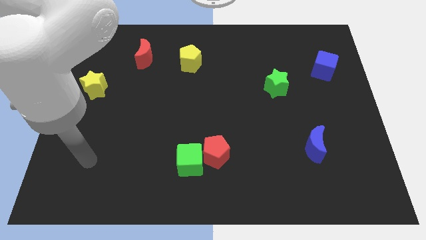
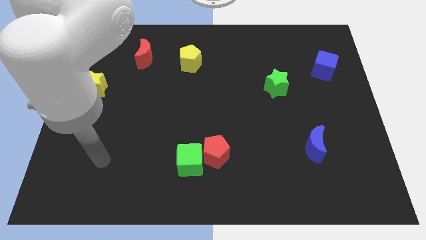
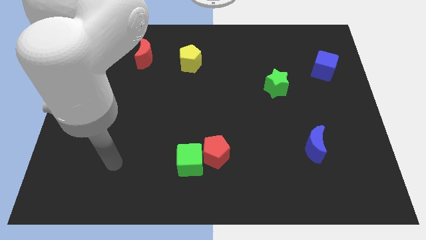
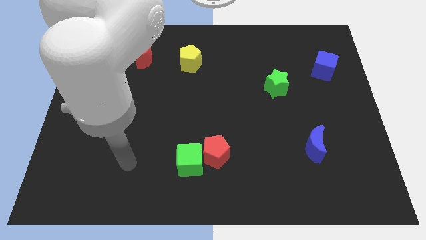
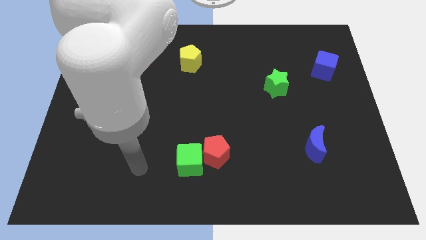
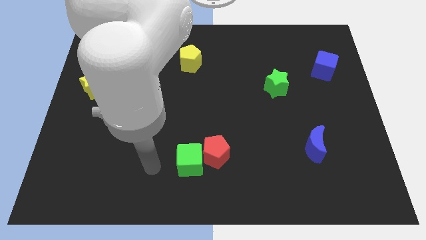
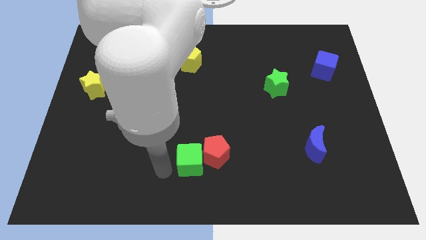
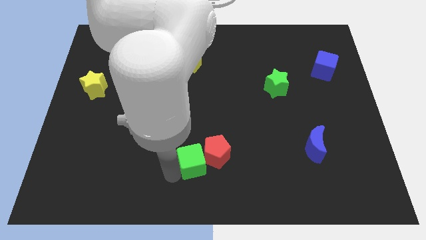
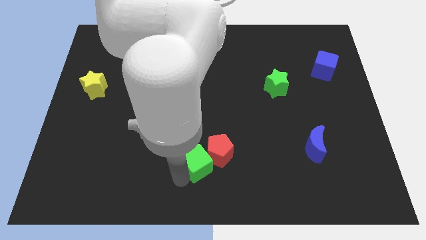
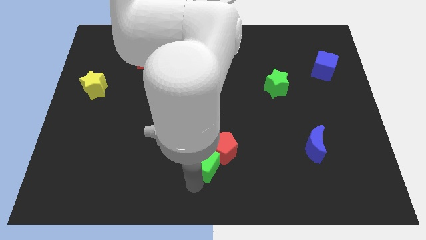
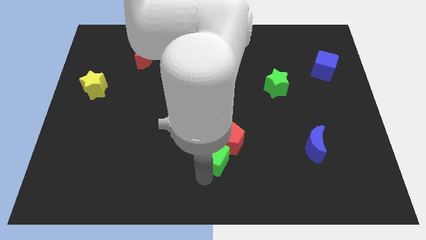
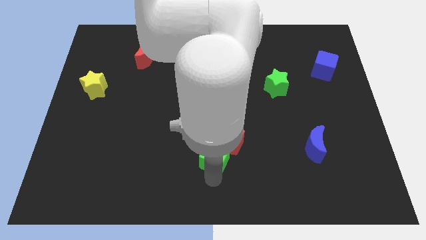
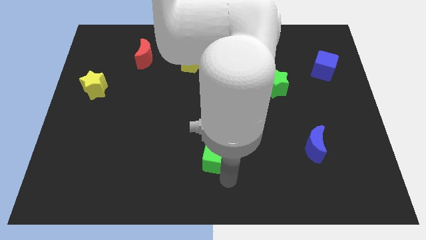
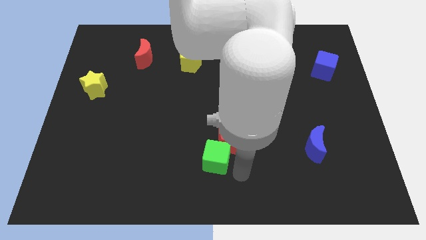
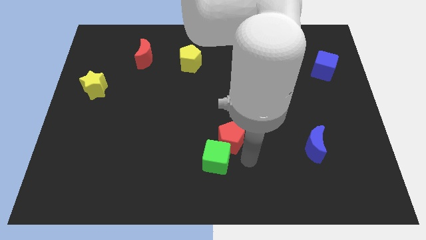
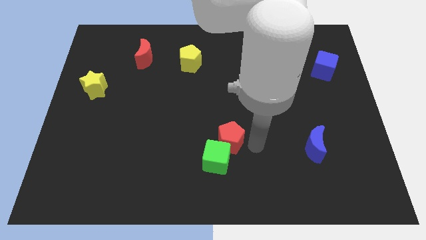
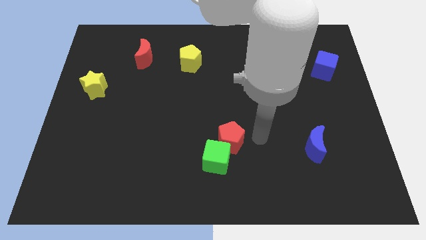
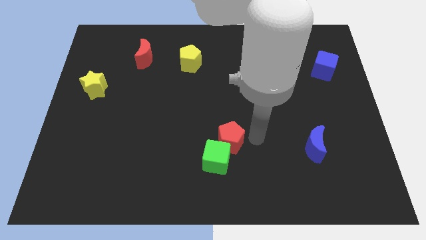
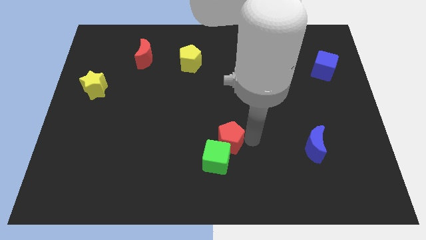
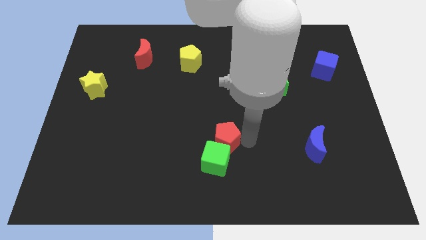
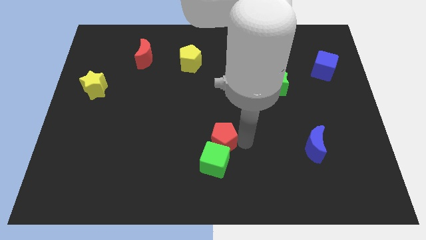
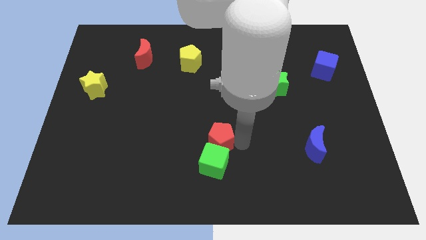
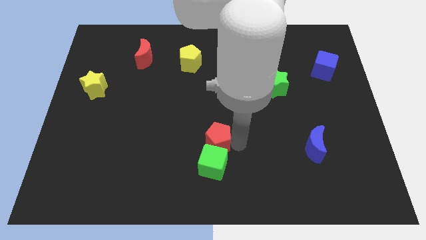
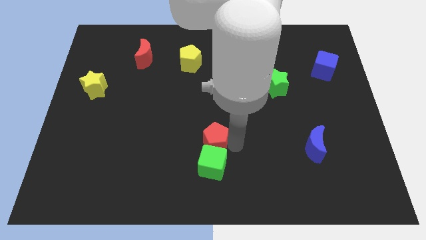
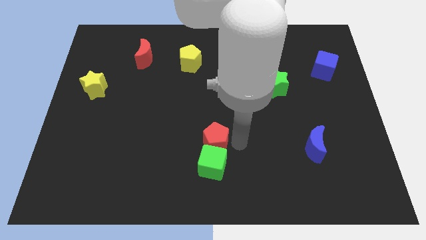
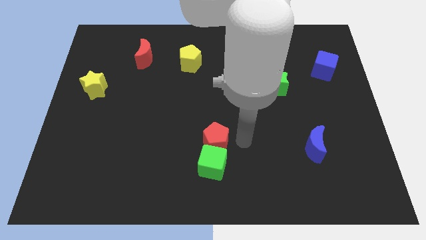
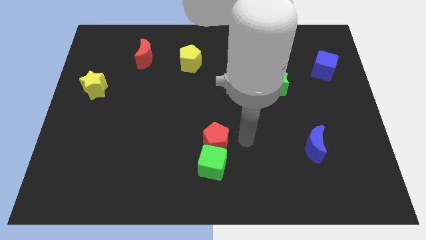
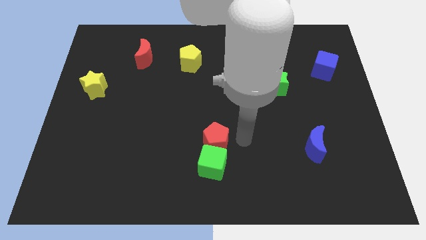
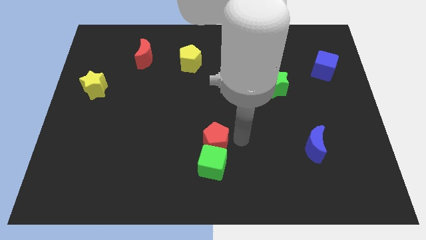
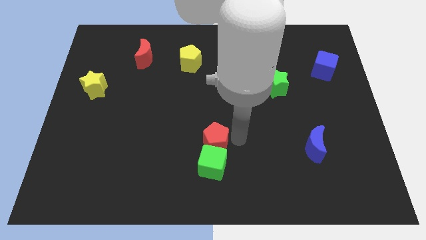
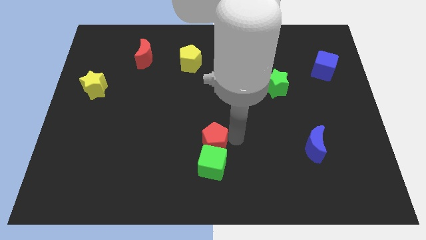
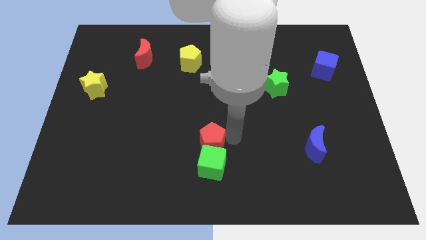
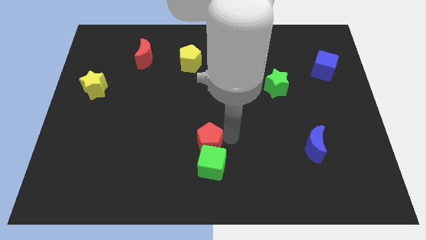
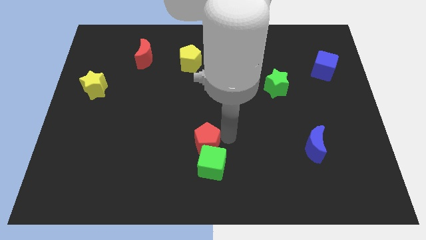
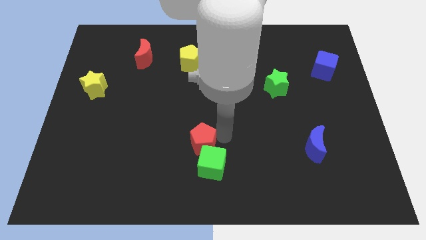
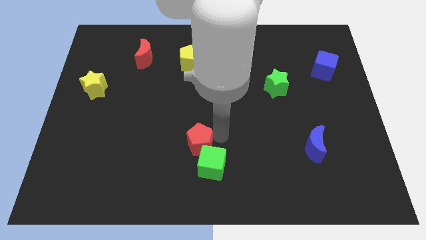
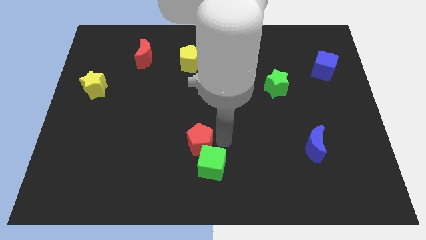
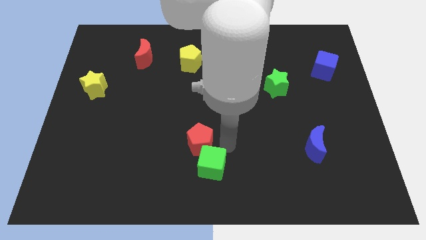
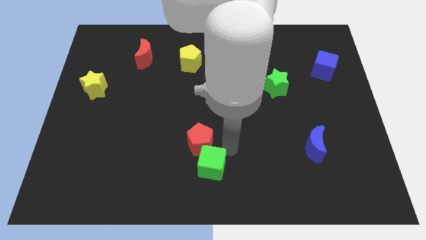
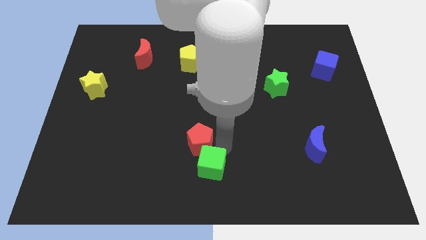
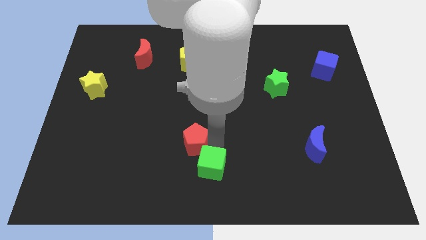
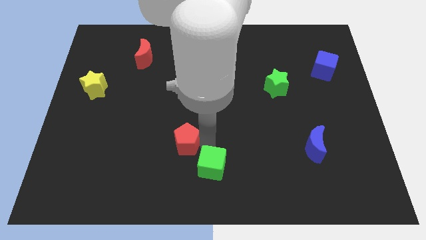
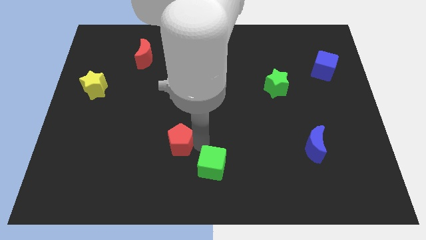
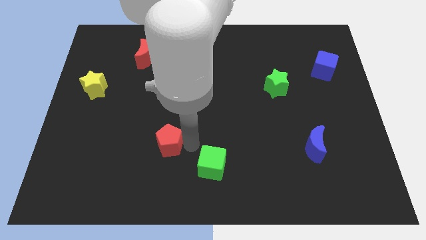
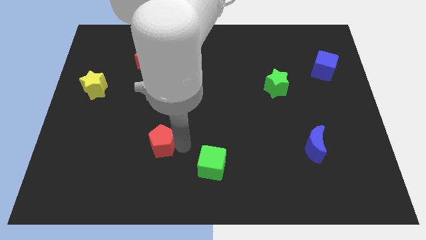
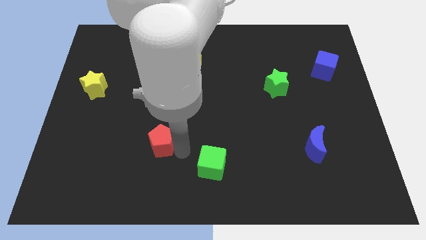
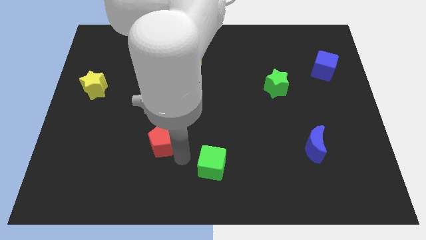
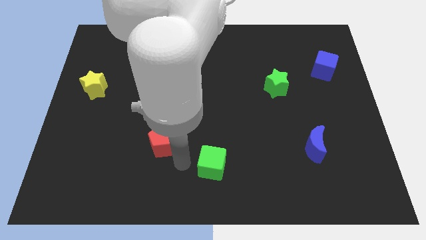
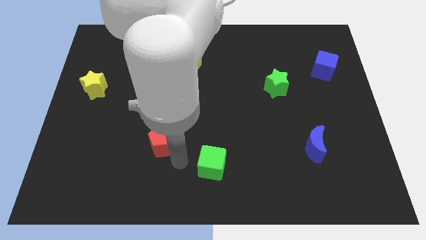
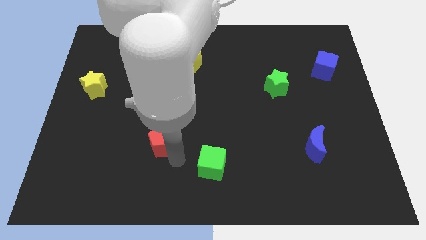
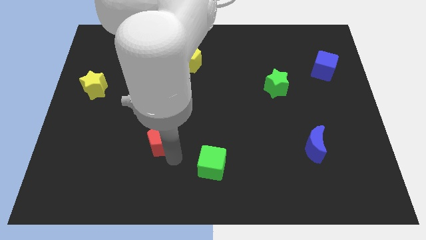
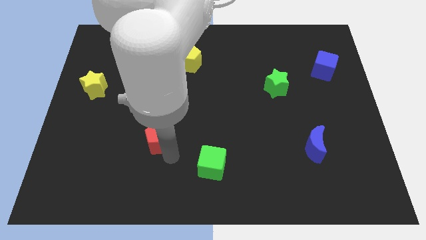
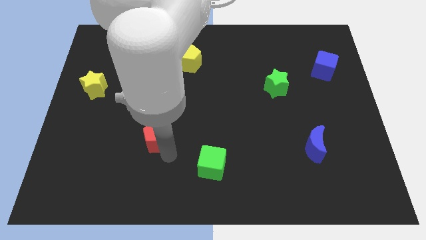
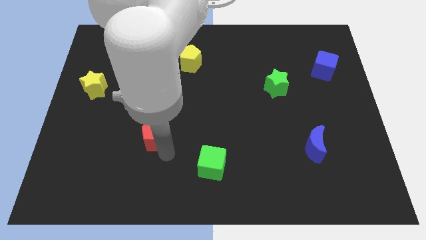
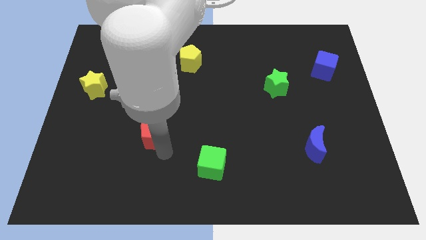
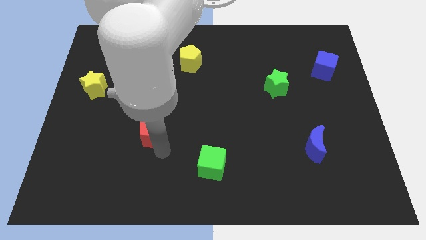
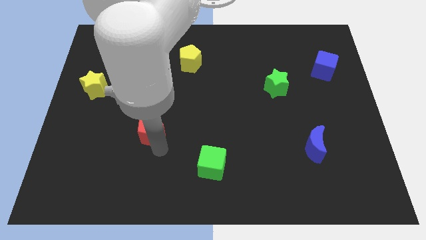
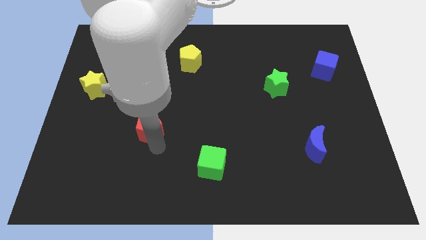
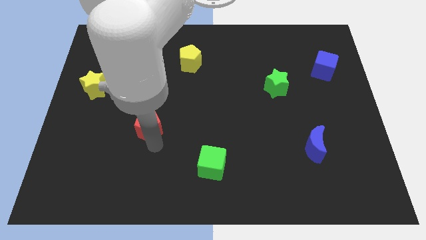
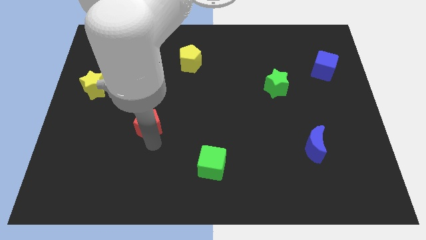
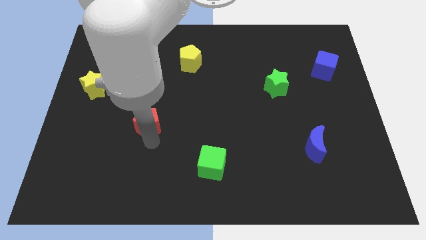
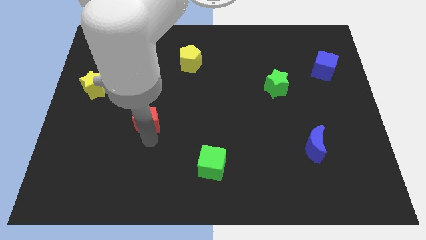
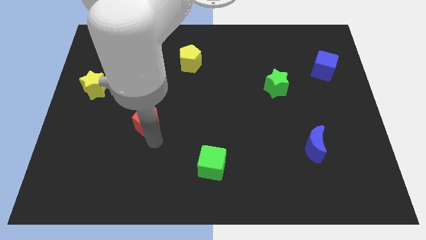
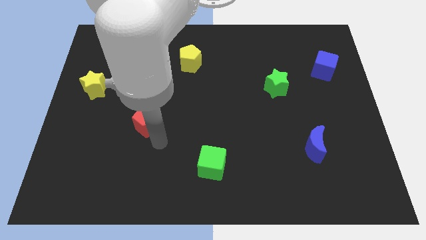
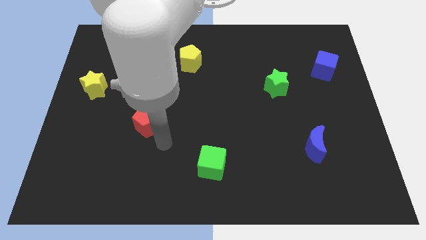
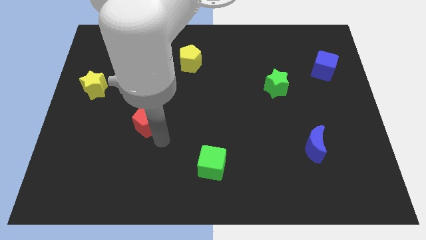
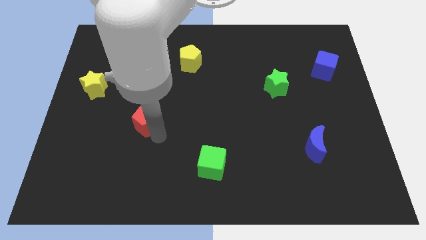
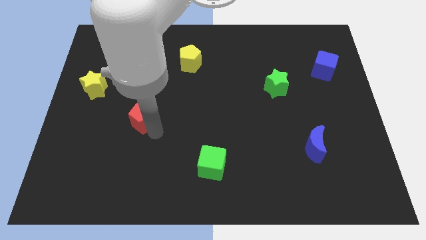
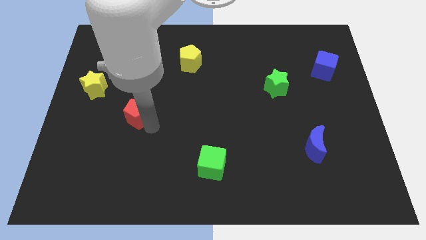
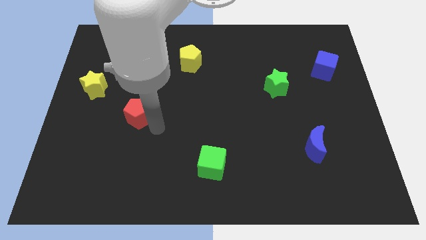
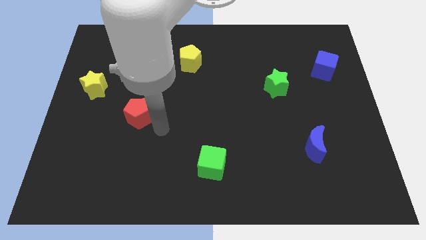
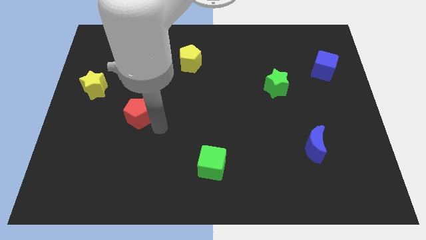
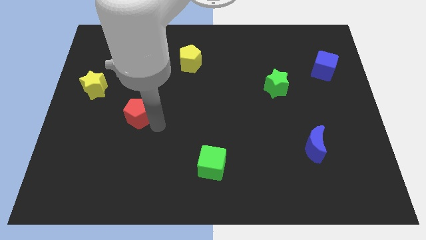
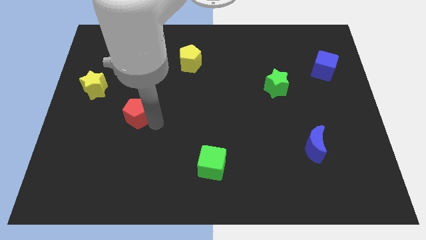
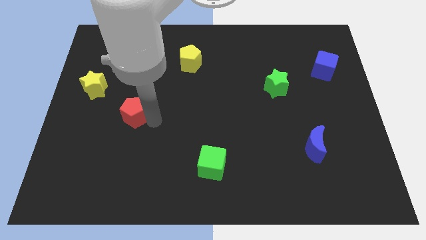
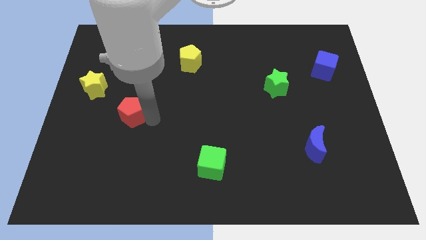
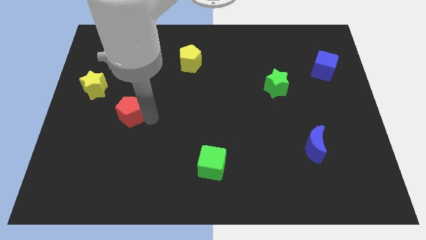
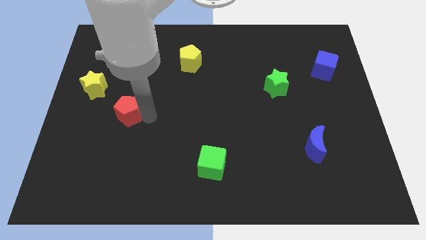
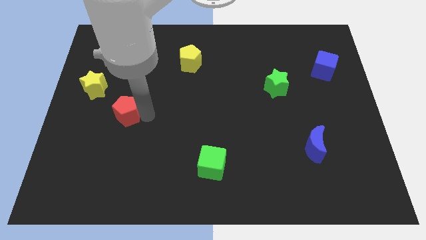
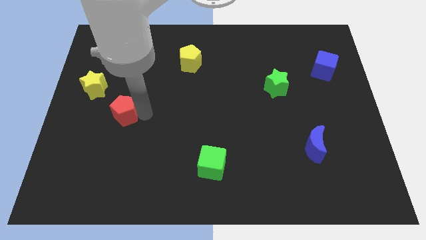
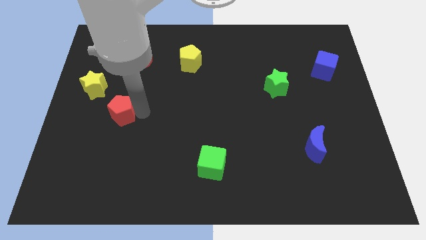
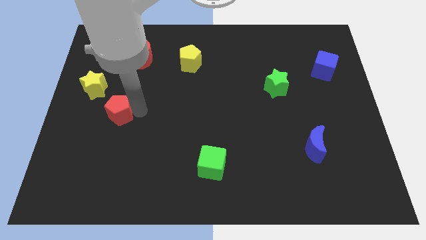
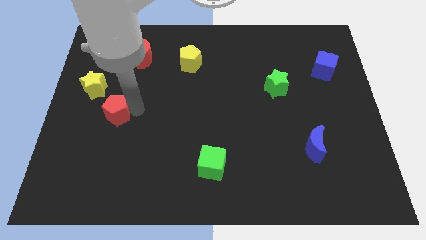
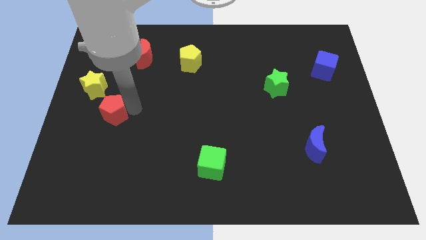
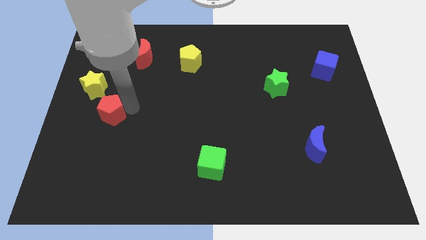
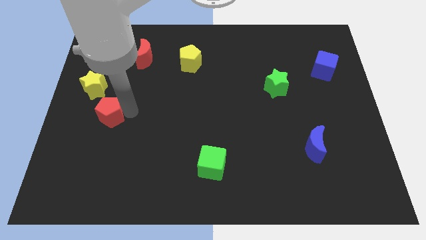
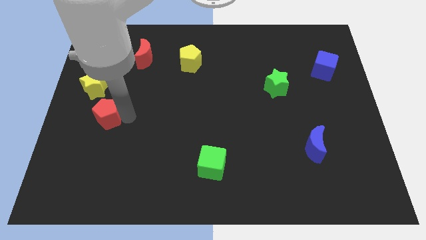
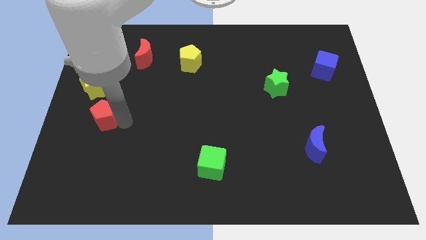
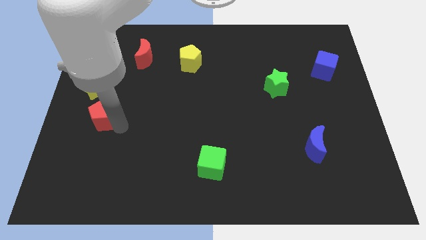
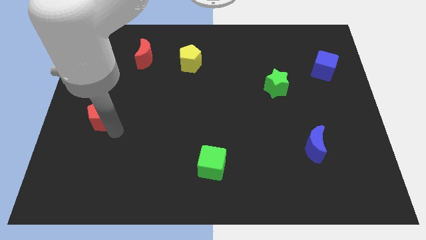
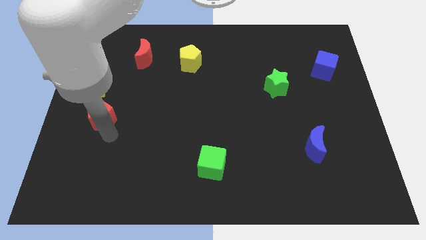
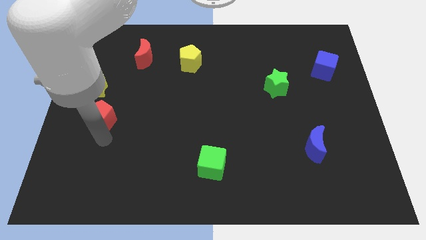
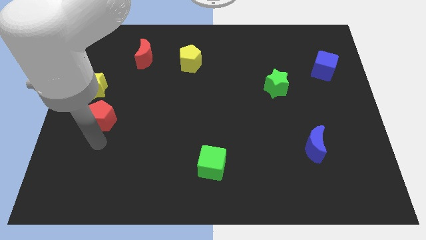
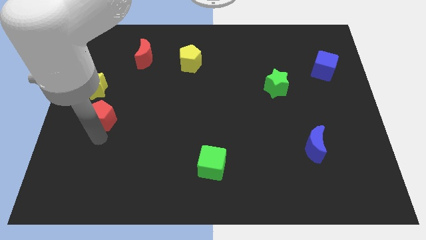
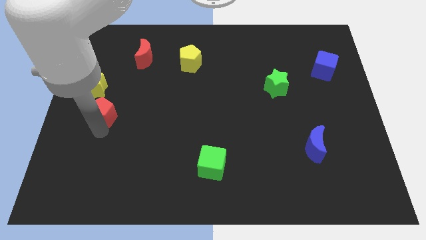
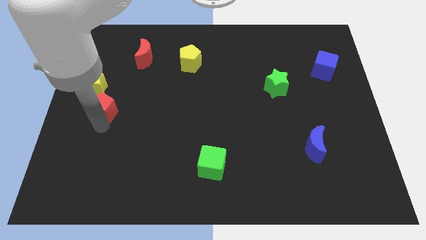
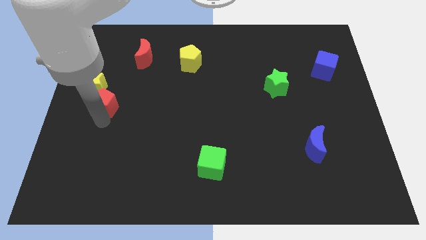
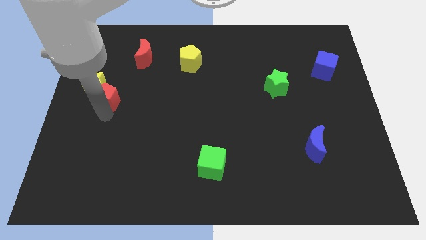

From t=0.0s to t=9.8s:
put the red pentagon next to the yellow star
